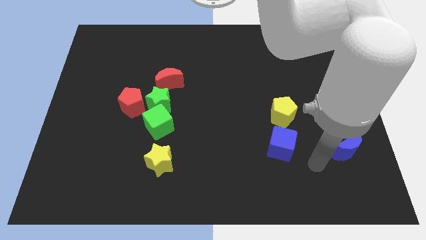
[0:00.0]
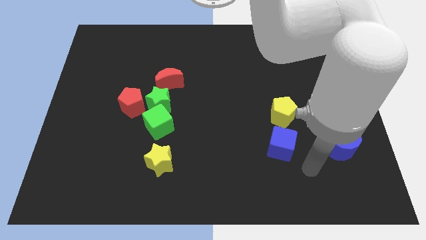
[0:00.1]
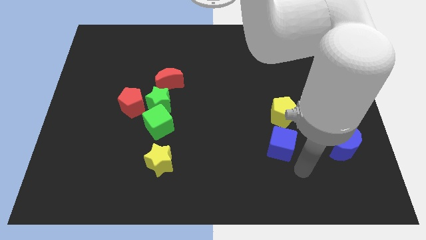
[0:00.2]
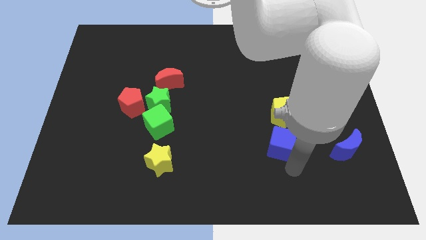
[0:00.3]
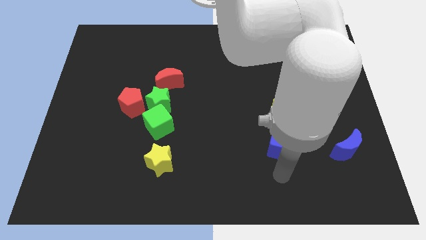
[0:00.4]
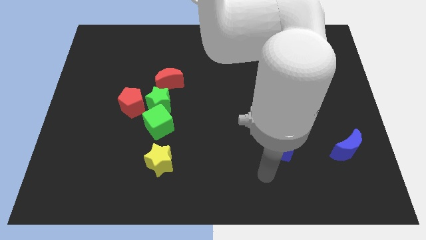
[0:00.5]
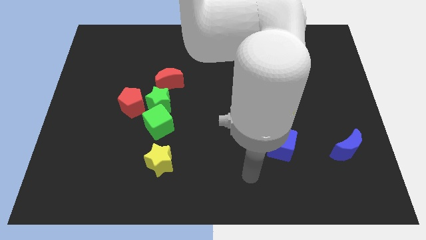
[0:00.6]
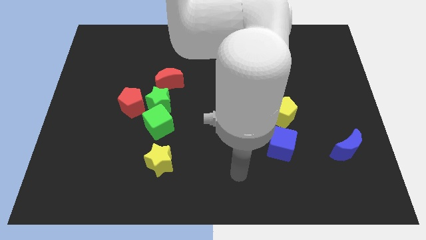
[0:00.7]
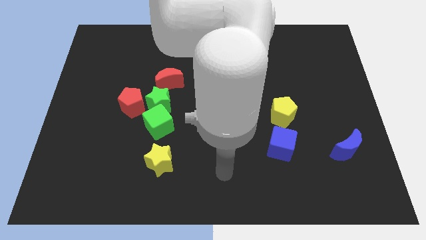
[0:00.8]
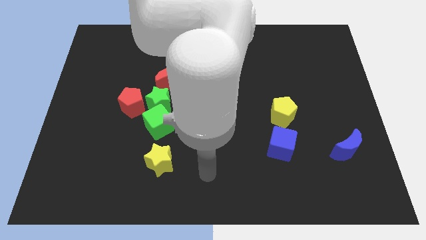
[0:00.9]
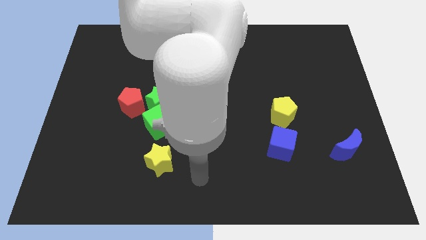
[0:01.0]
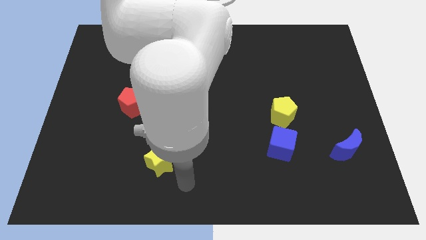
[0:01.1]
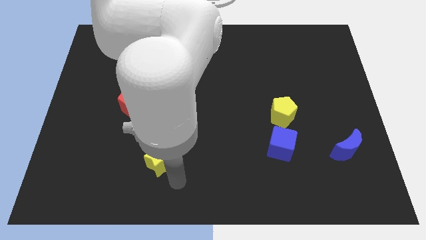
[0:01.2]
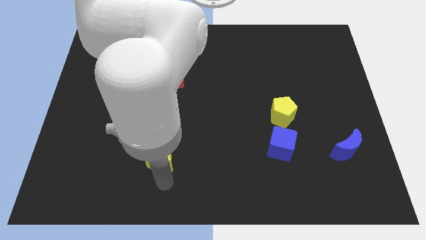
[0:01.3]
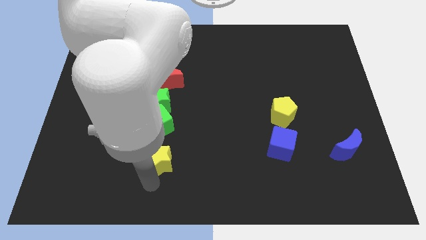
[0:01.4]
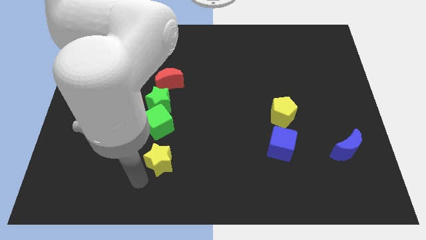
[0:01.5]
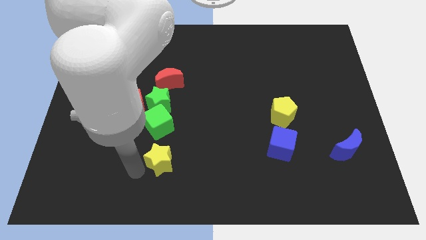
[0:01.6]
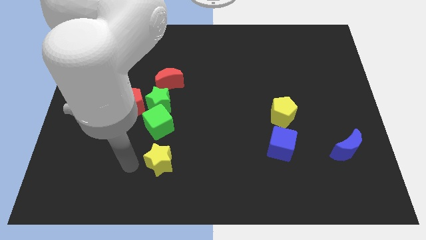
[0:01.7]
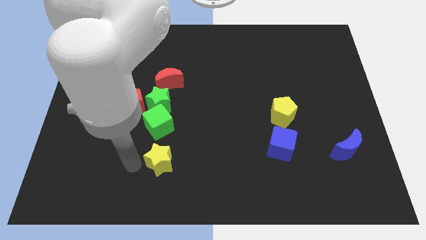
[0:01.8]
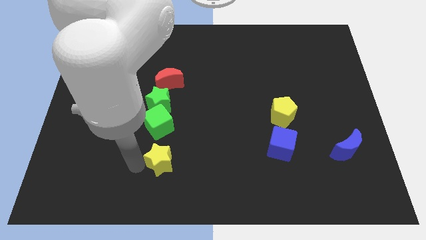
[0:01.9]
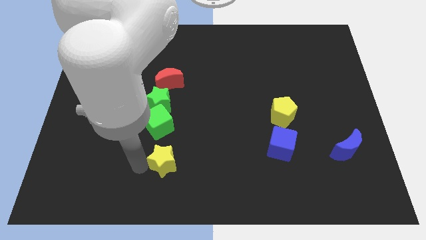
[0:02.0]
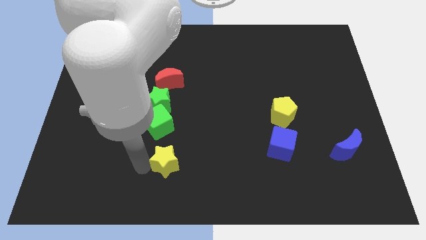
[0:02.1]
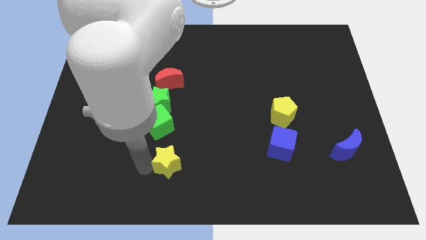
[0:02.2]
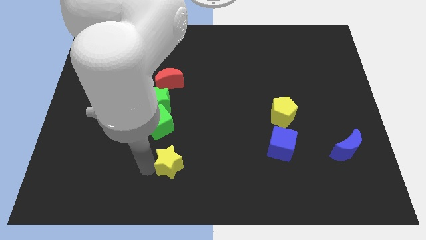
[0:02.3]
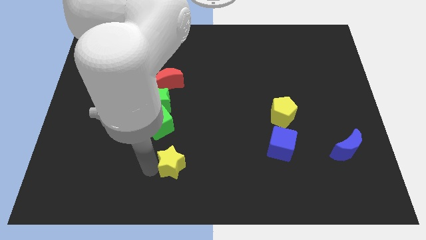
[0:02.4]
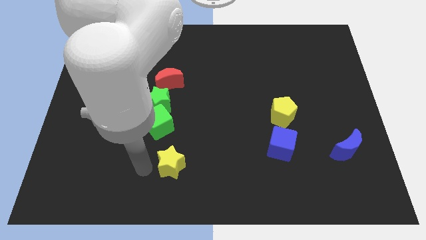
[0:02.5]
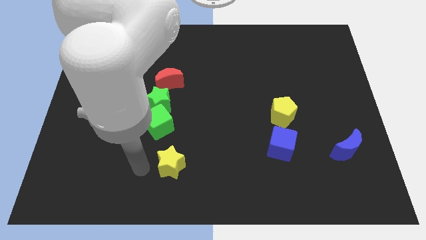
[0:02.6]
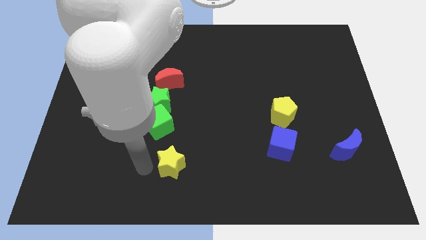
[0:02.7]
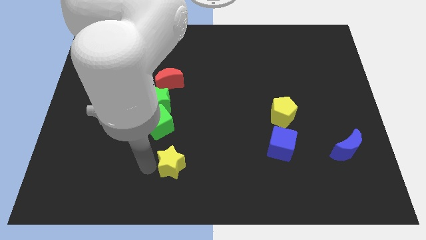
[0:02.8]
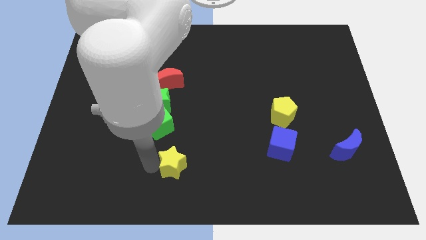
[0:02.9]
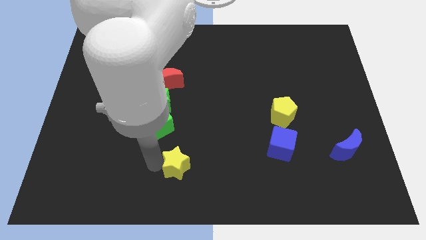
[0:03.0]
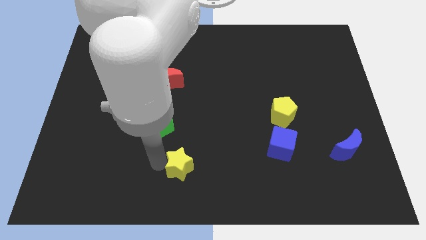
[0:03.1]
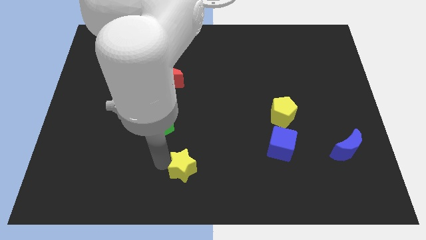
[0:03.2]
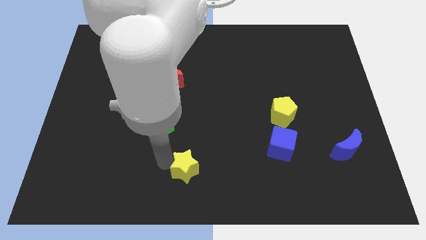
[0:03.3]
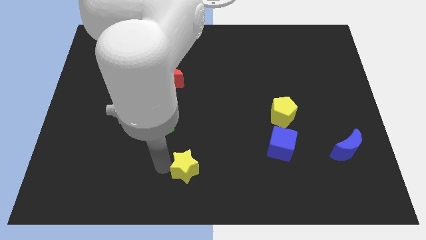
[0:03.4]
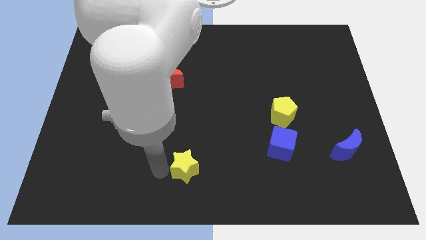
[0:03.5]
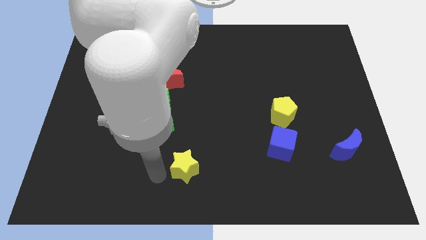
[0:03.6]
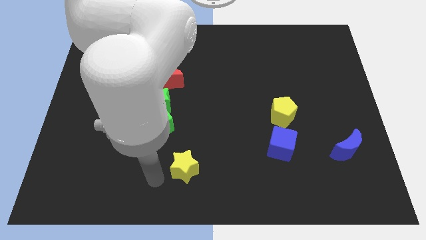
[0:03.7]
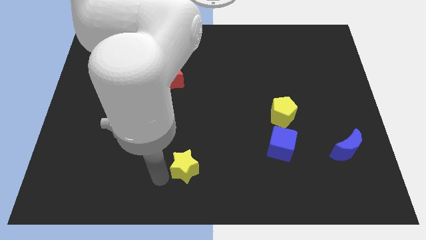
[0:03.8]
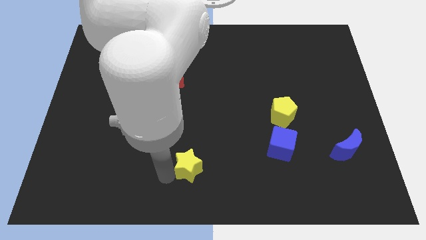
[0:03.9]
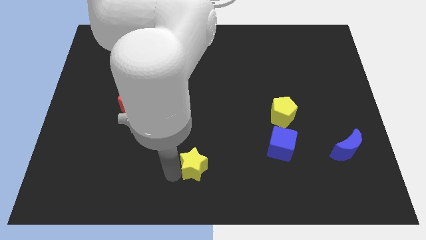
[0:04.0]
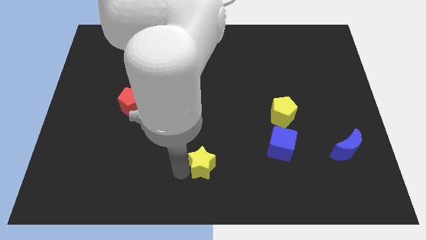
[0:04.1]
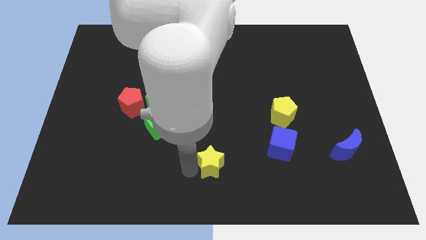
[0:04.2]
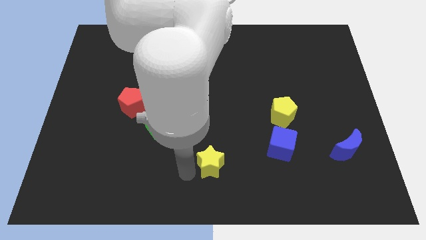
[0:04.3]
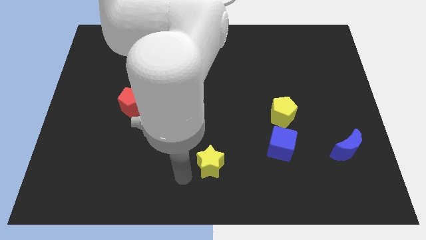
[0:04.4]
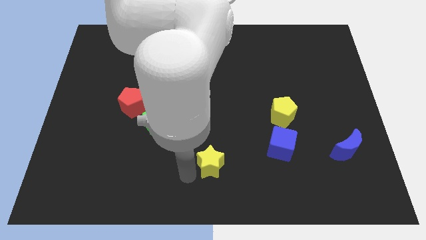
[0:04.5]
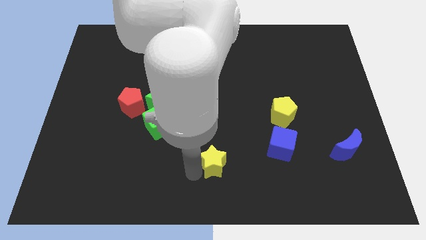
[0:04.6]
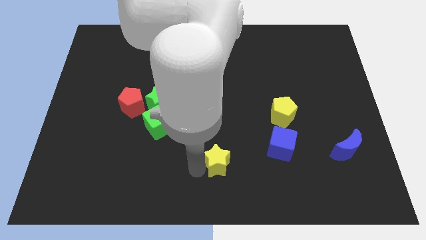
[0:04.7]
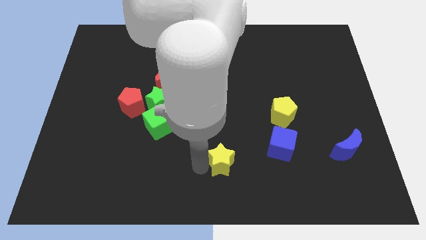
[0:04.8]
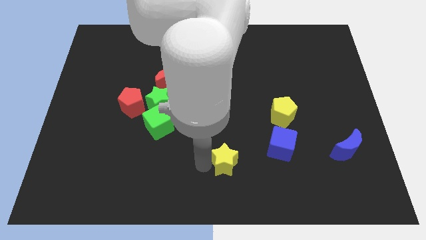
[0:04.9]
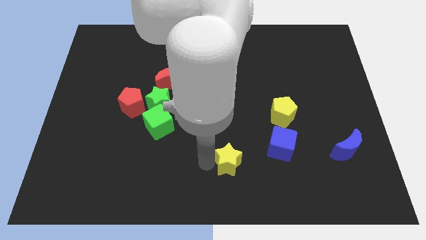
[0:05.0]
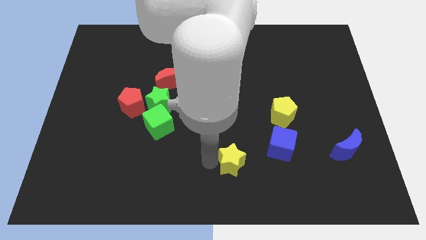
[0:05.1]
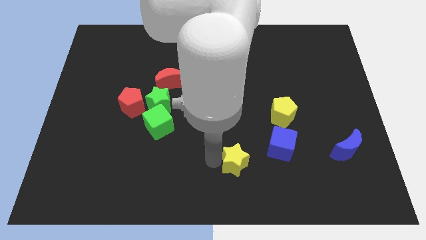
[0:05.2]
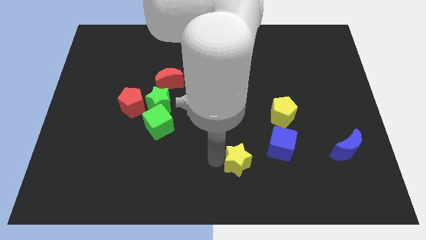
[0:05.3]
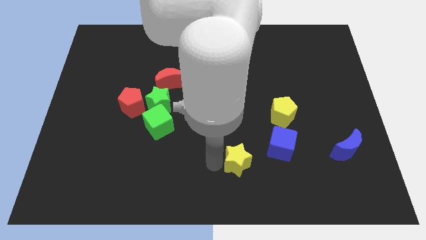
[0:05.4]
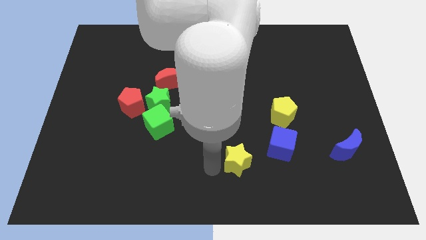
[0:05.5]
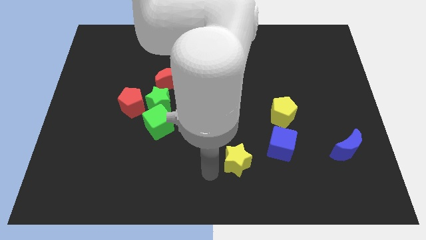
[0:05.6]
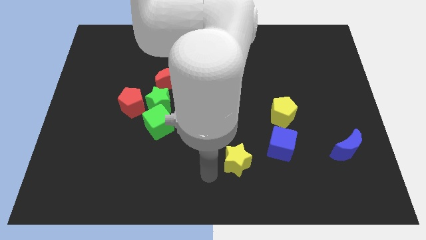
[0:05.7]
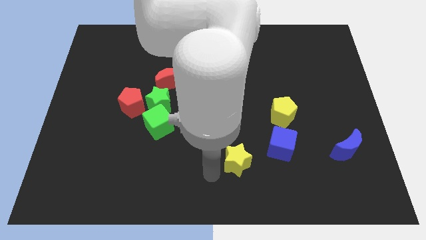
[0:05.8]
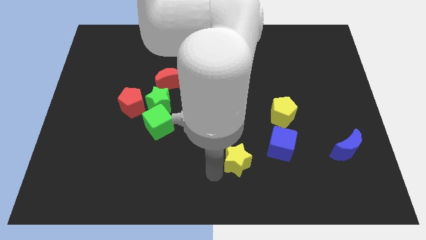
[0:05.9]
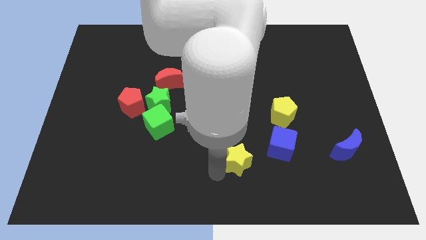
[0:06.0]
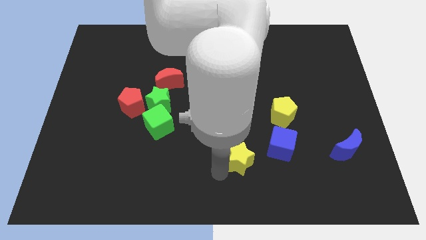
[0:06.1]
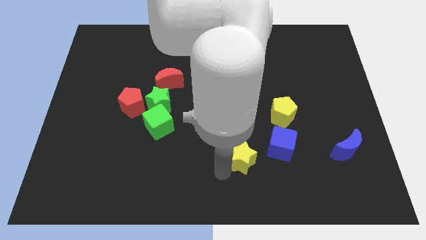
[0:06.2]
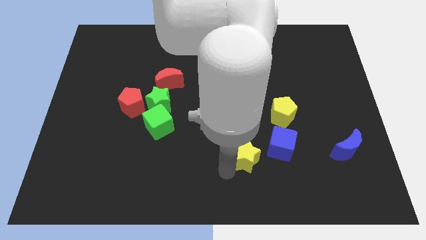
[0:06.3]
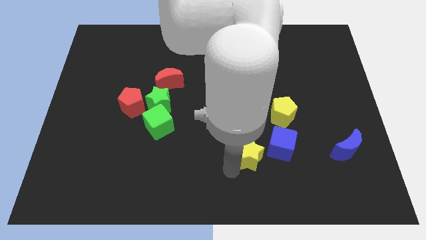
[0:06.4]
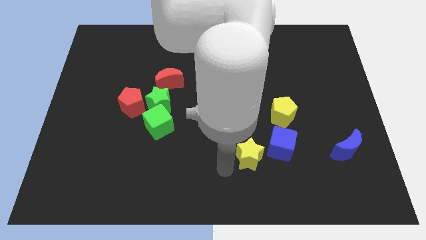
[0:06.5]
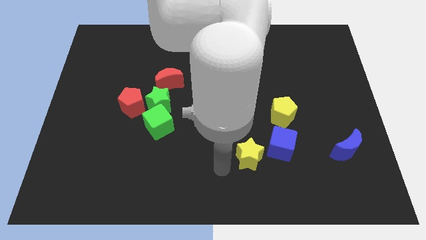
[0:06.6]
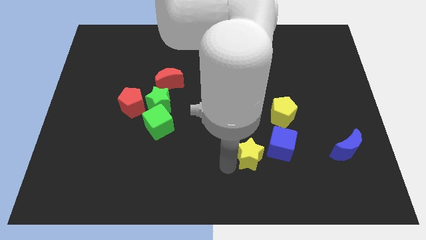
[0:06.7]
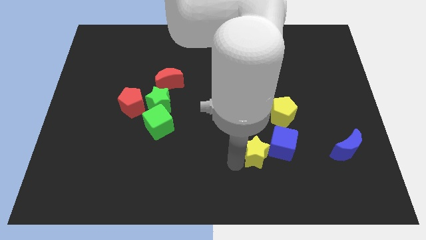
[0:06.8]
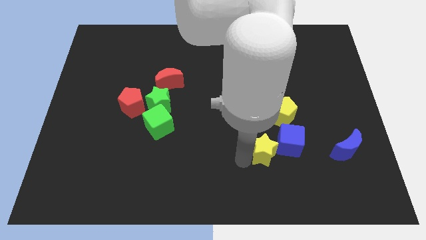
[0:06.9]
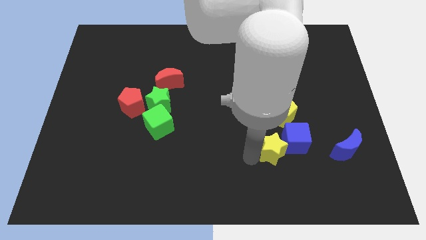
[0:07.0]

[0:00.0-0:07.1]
put the yellow star towards the blue cube
